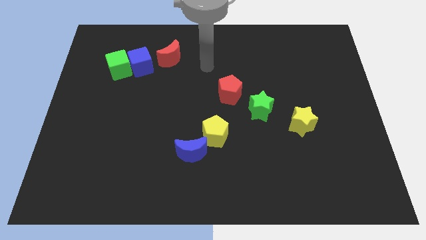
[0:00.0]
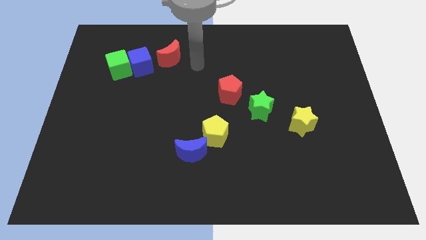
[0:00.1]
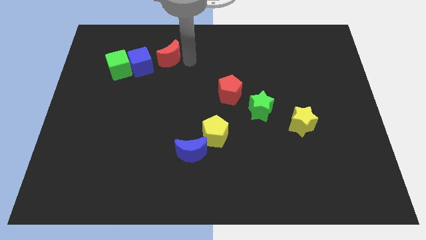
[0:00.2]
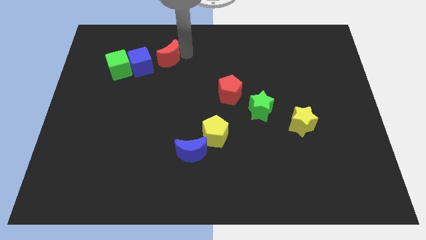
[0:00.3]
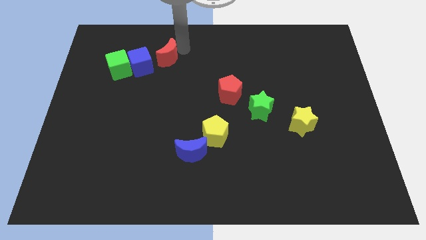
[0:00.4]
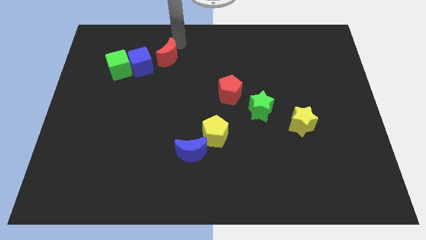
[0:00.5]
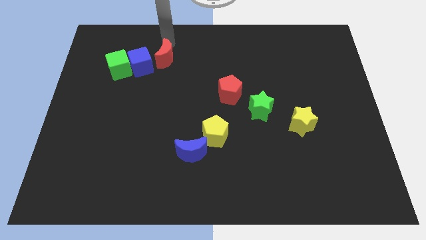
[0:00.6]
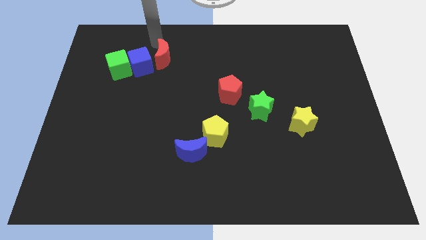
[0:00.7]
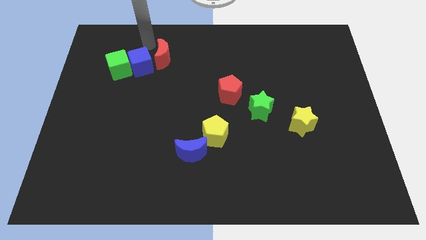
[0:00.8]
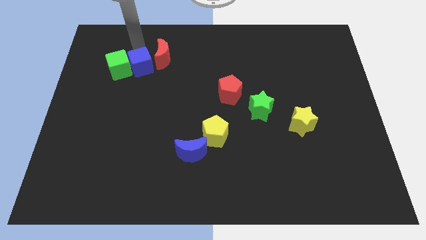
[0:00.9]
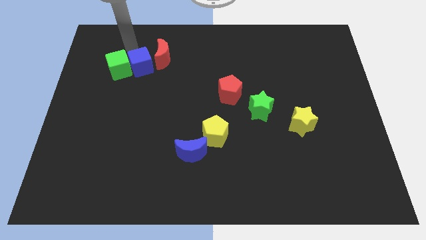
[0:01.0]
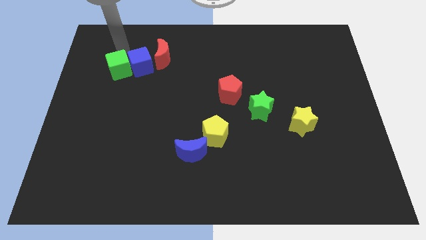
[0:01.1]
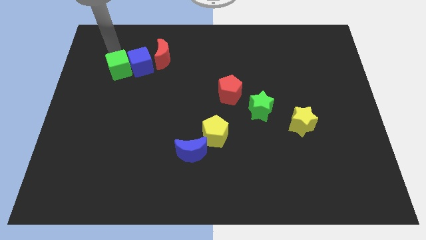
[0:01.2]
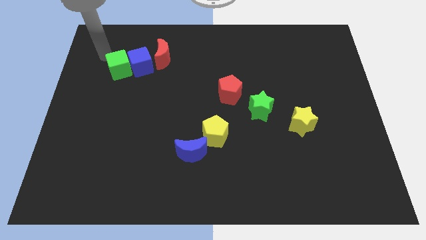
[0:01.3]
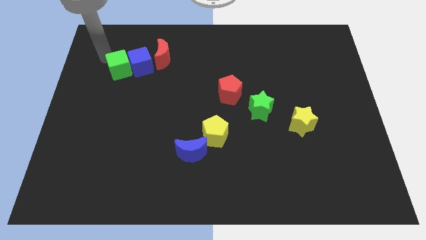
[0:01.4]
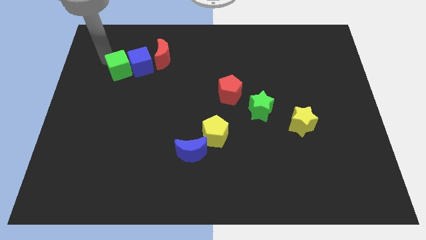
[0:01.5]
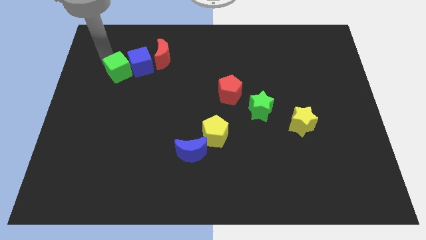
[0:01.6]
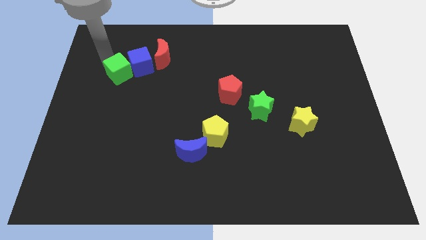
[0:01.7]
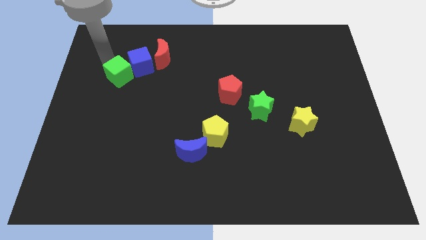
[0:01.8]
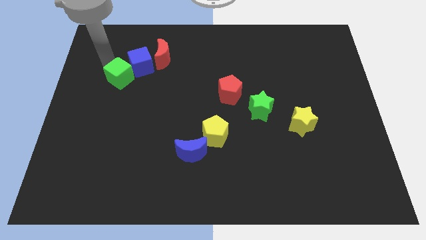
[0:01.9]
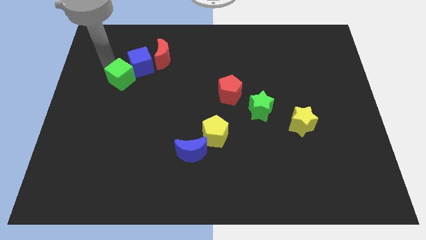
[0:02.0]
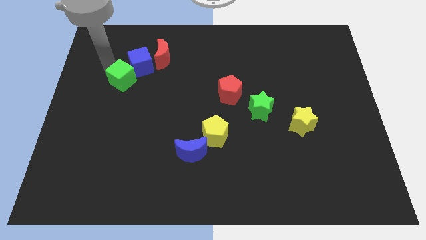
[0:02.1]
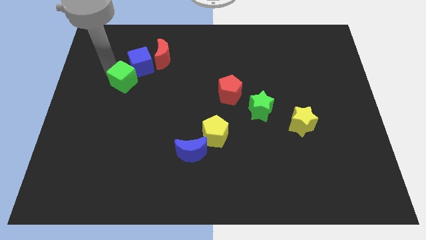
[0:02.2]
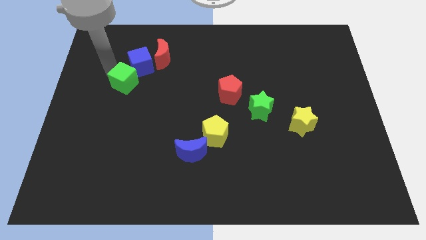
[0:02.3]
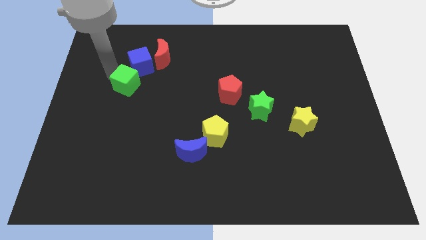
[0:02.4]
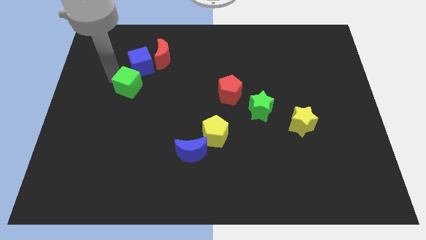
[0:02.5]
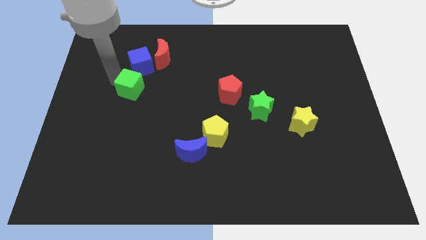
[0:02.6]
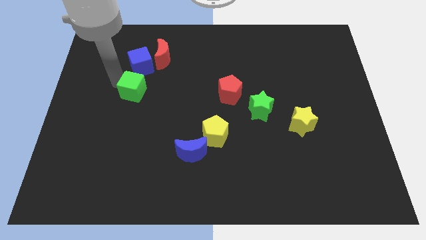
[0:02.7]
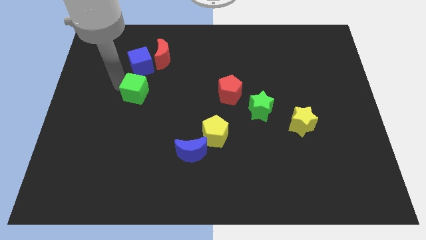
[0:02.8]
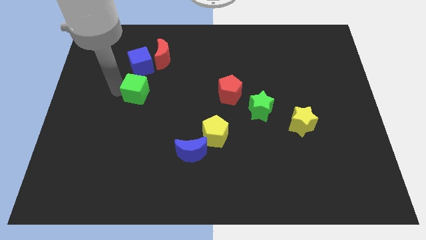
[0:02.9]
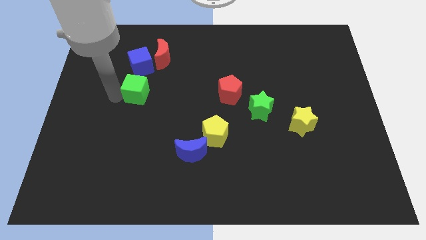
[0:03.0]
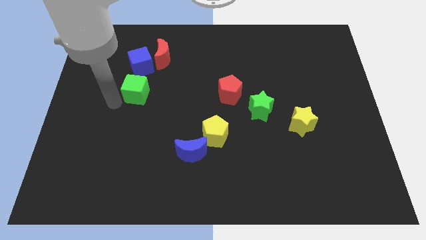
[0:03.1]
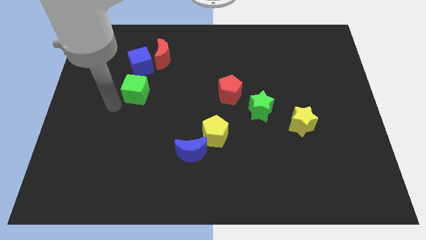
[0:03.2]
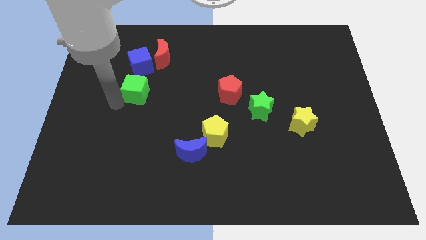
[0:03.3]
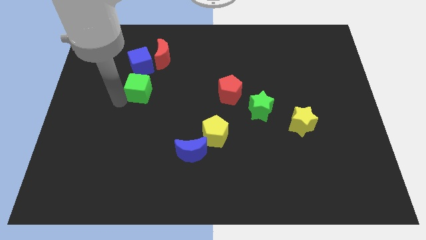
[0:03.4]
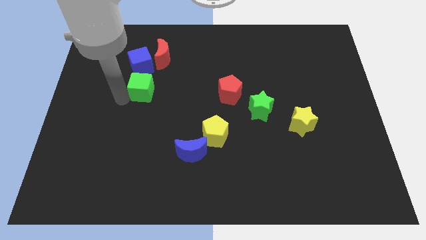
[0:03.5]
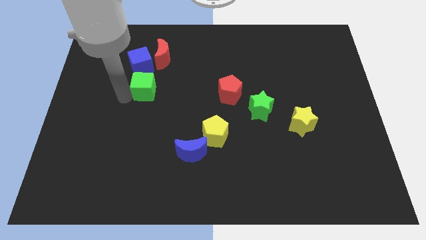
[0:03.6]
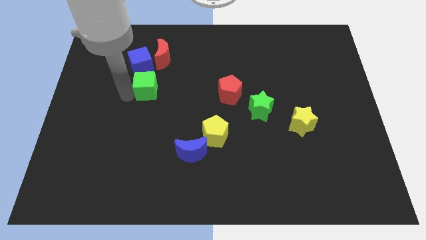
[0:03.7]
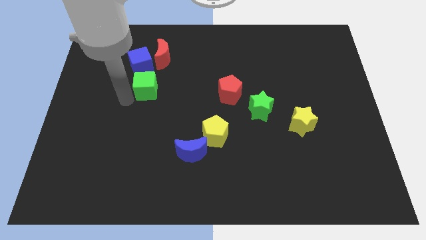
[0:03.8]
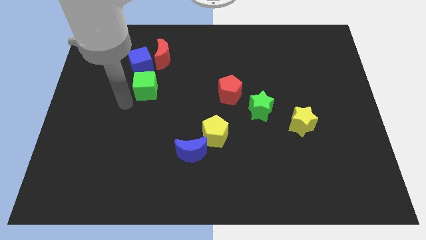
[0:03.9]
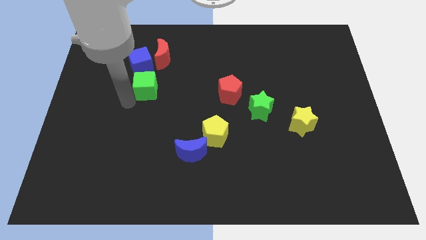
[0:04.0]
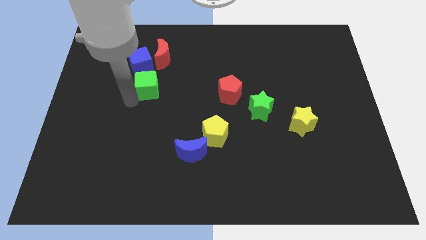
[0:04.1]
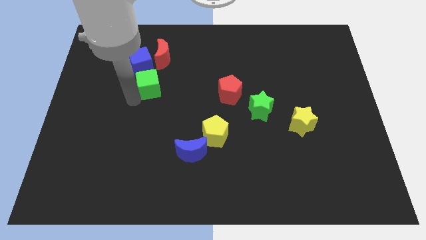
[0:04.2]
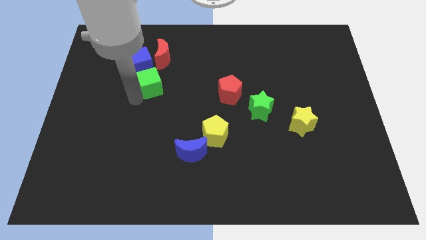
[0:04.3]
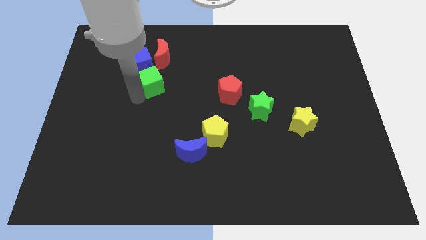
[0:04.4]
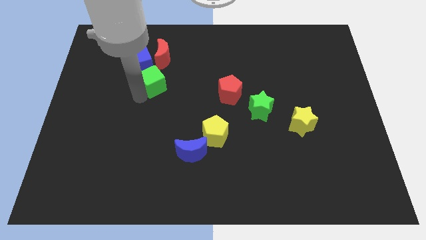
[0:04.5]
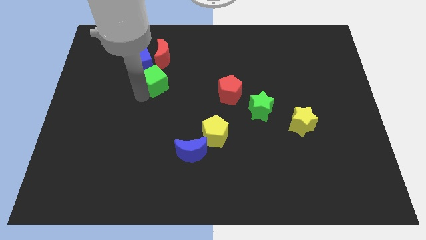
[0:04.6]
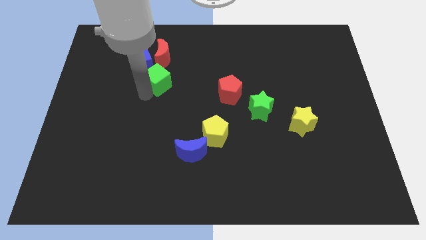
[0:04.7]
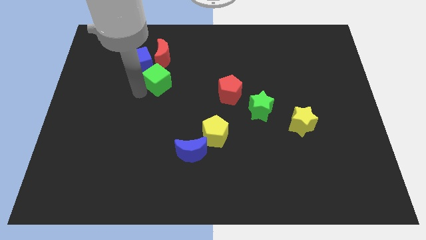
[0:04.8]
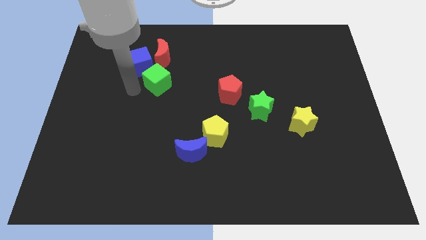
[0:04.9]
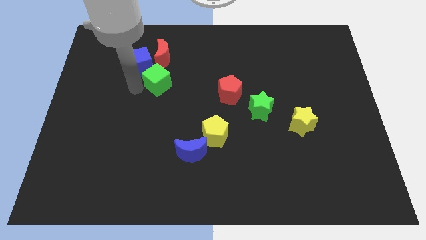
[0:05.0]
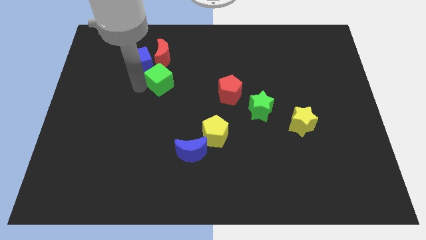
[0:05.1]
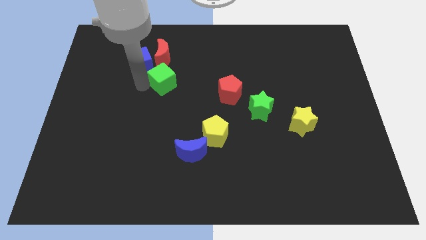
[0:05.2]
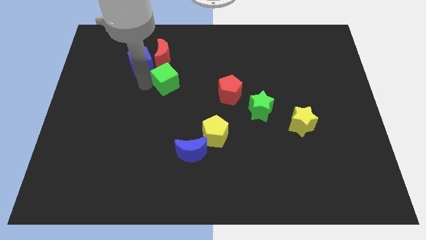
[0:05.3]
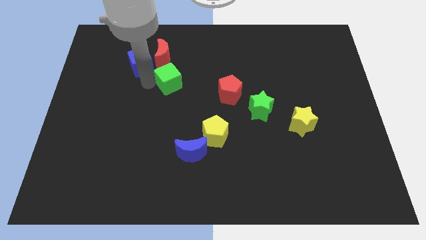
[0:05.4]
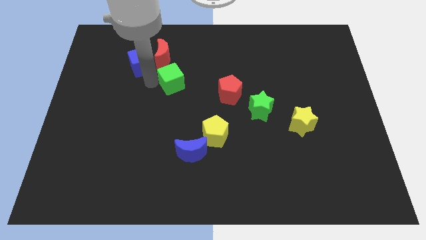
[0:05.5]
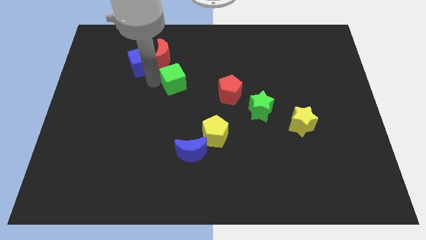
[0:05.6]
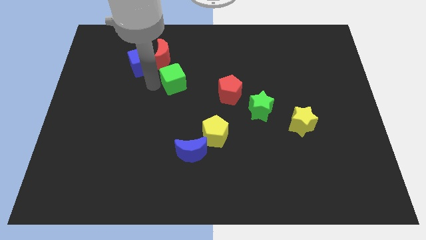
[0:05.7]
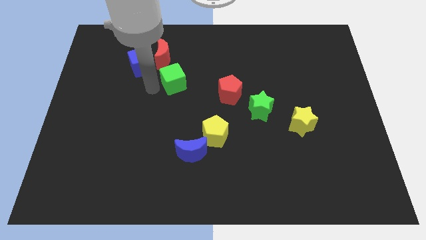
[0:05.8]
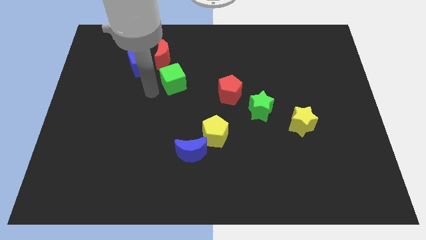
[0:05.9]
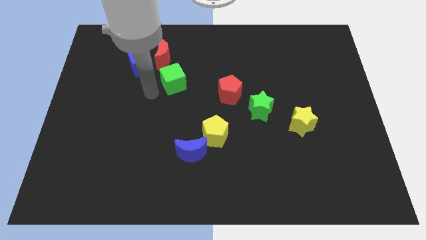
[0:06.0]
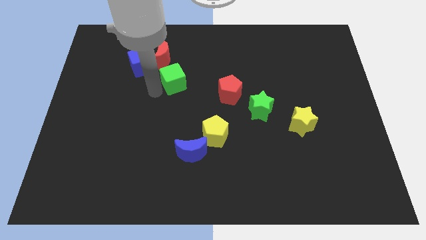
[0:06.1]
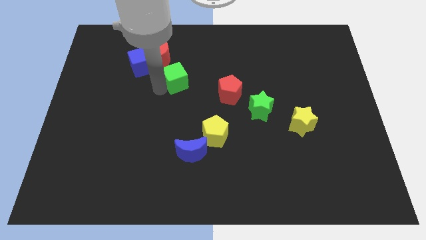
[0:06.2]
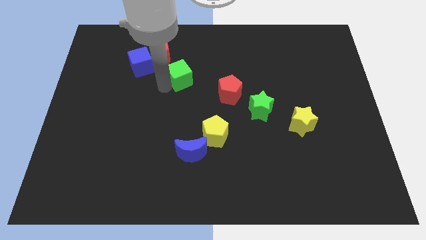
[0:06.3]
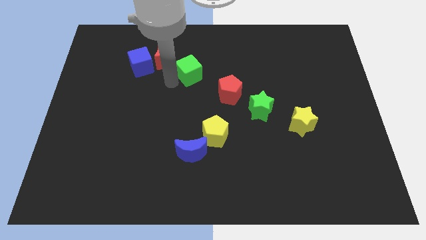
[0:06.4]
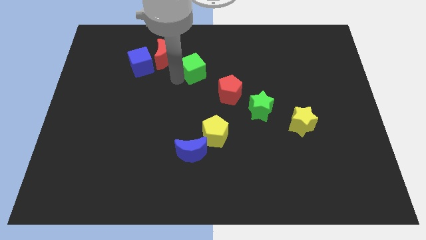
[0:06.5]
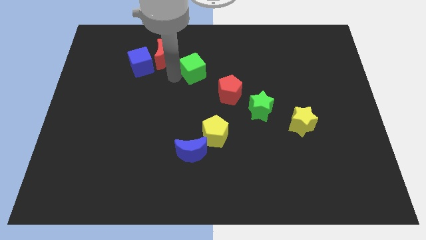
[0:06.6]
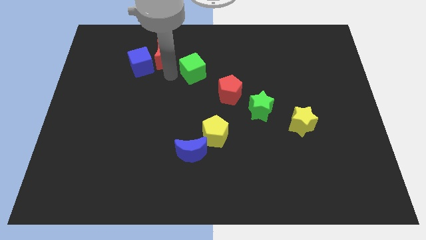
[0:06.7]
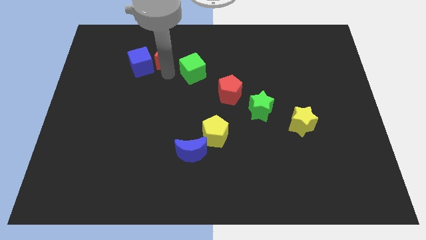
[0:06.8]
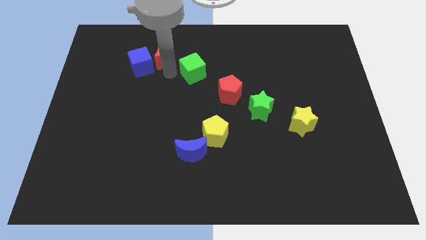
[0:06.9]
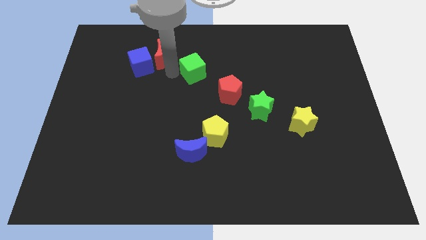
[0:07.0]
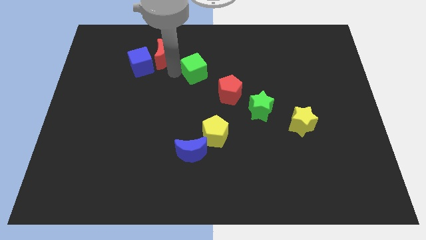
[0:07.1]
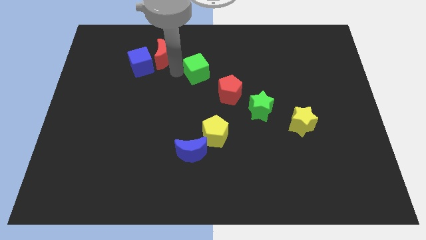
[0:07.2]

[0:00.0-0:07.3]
move the green cube to the right

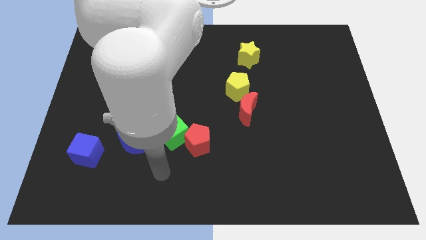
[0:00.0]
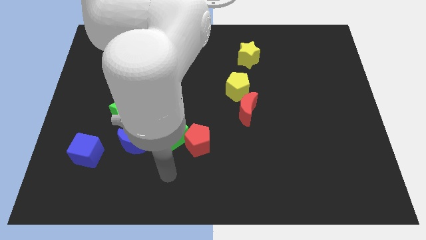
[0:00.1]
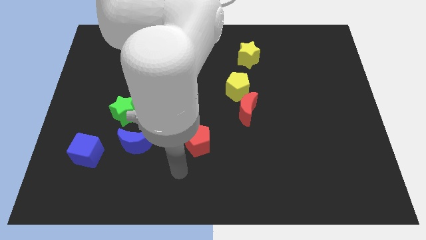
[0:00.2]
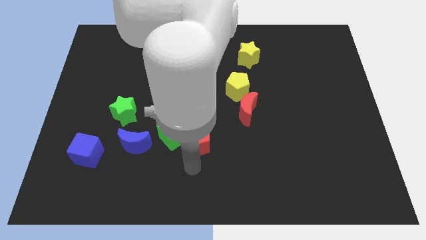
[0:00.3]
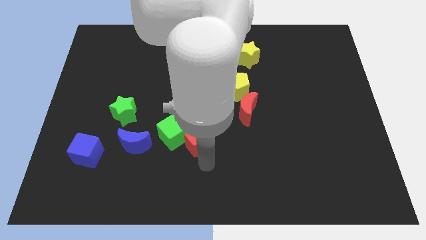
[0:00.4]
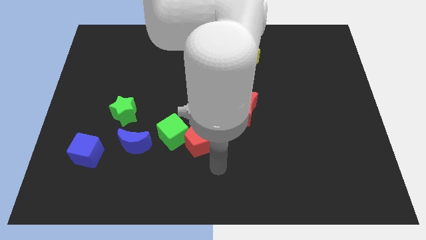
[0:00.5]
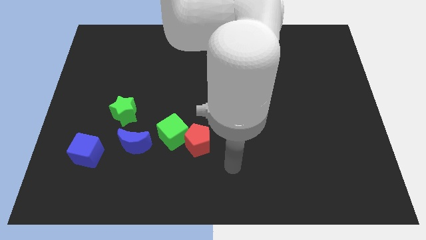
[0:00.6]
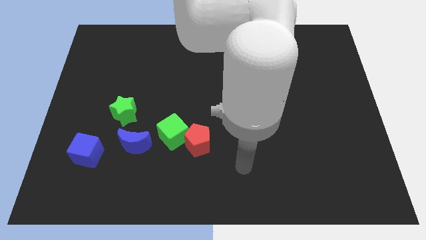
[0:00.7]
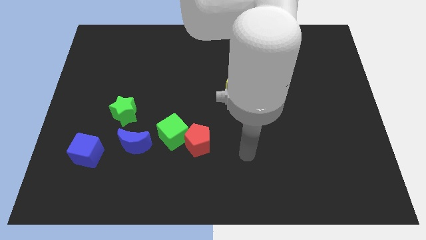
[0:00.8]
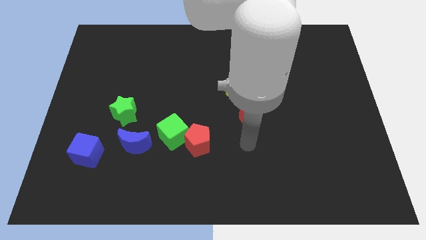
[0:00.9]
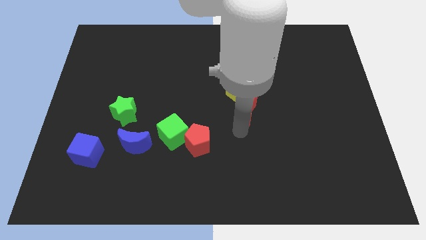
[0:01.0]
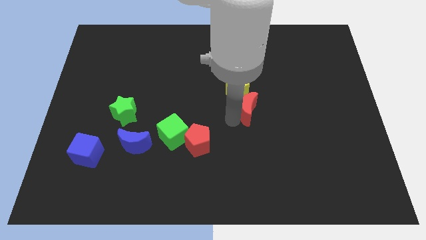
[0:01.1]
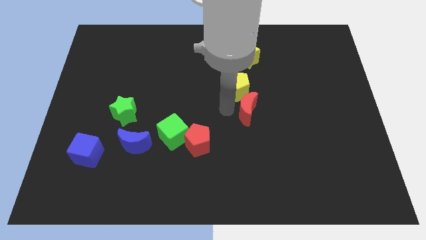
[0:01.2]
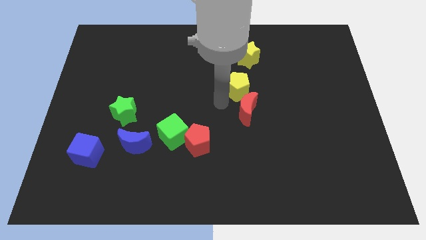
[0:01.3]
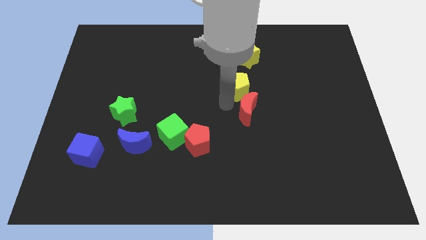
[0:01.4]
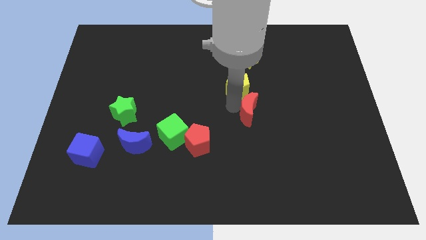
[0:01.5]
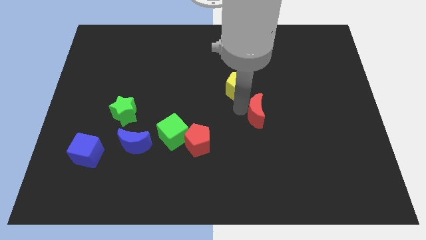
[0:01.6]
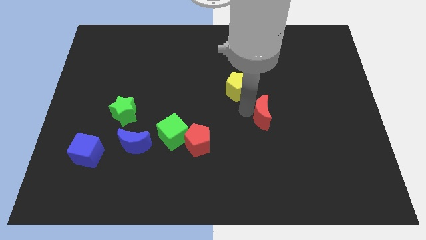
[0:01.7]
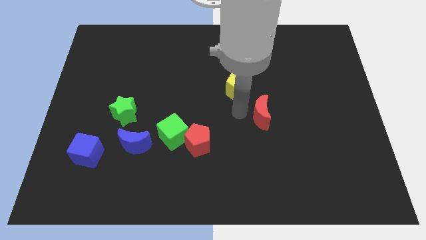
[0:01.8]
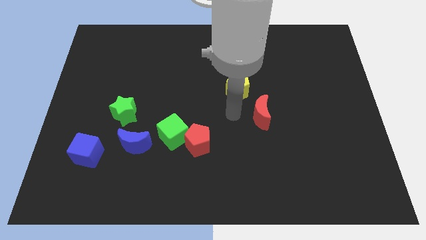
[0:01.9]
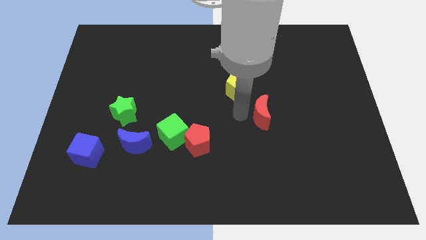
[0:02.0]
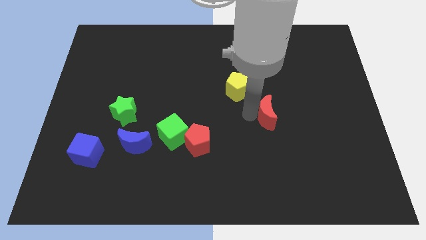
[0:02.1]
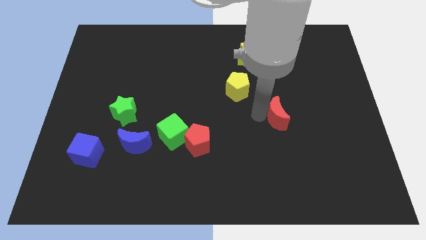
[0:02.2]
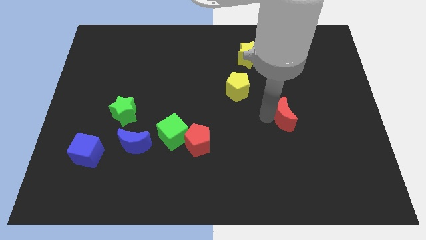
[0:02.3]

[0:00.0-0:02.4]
slightly push the red moon to the right
